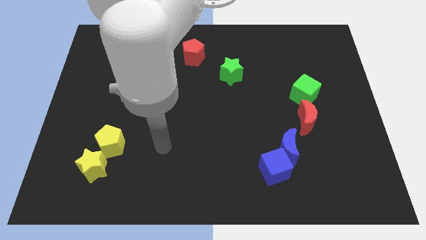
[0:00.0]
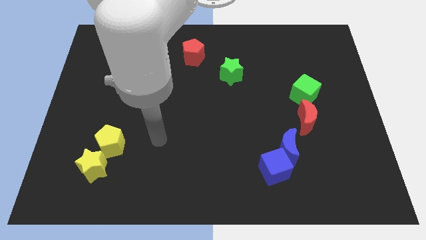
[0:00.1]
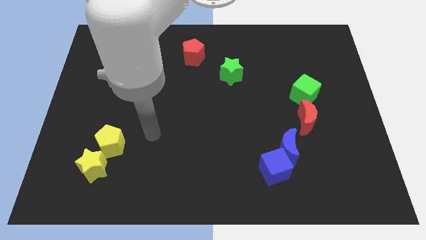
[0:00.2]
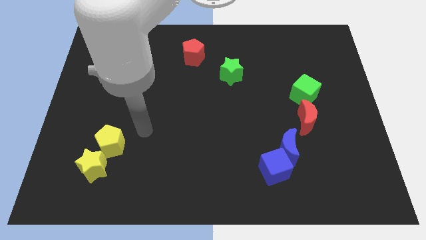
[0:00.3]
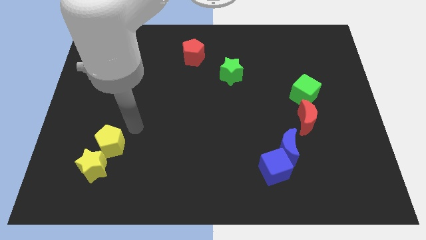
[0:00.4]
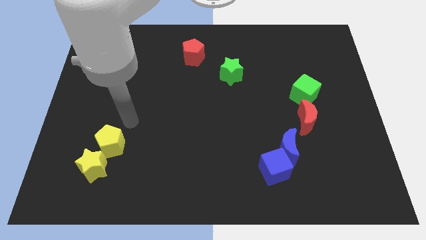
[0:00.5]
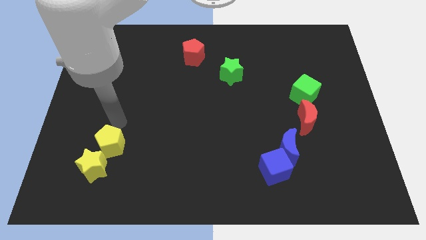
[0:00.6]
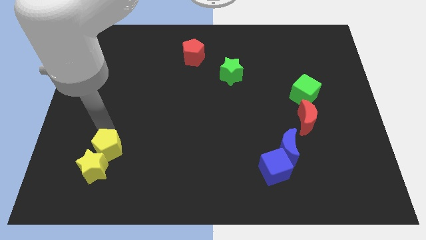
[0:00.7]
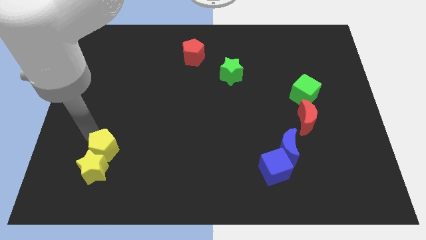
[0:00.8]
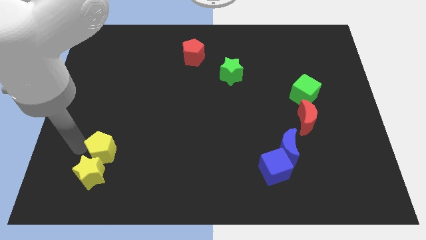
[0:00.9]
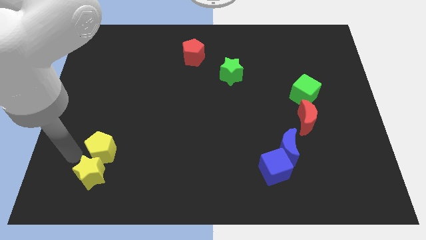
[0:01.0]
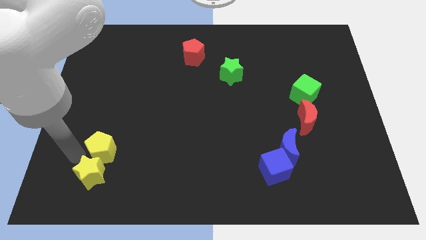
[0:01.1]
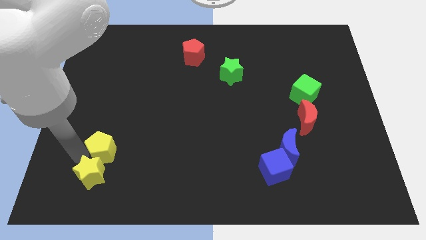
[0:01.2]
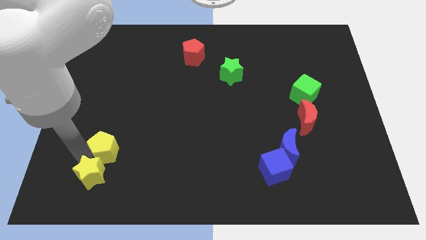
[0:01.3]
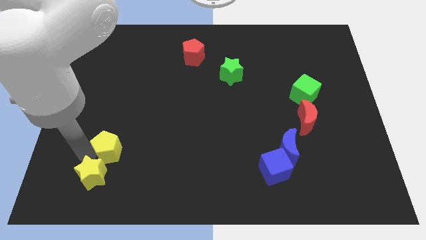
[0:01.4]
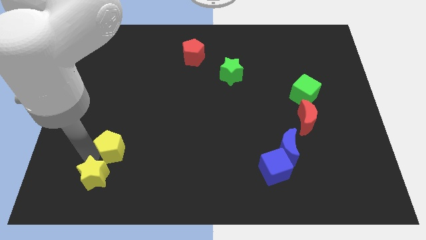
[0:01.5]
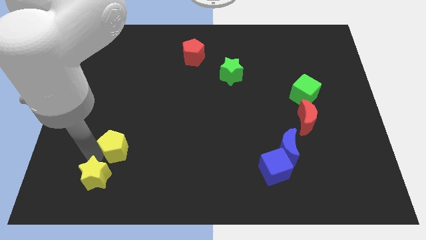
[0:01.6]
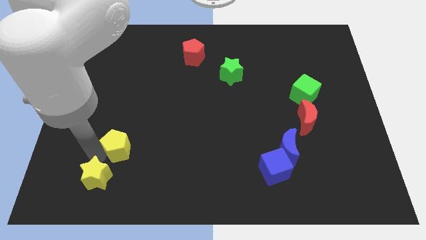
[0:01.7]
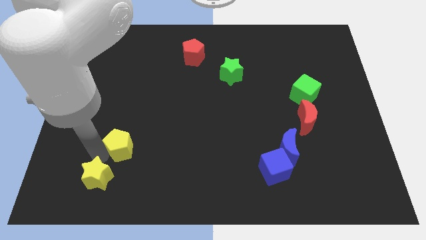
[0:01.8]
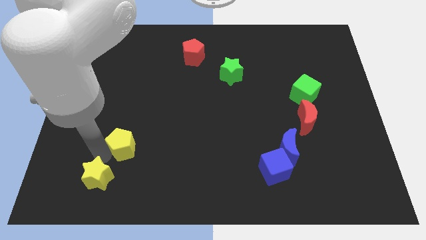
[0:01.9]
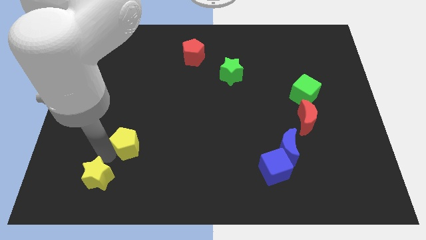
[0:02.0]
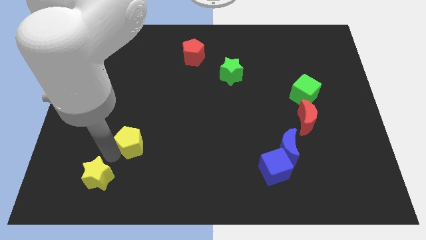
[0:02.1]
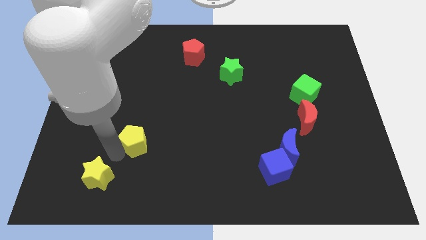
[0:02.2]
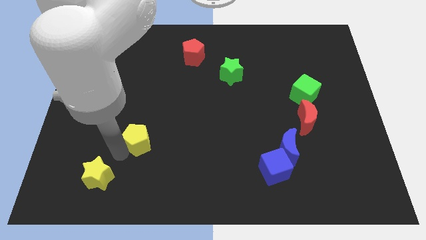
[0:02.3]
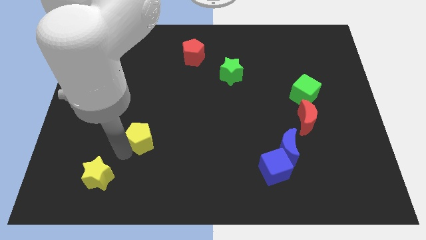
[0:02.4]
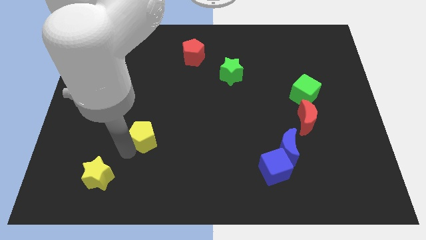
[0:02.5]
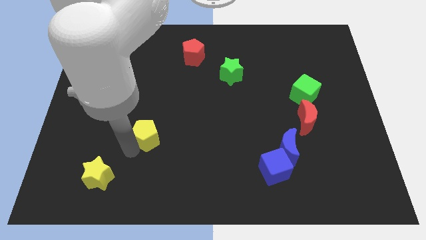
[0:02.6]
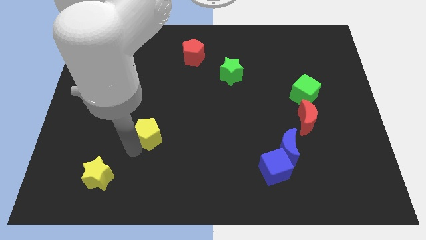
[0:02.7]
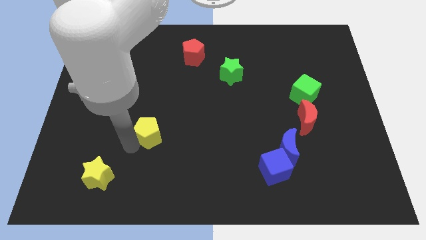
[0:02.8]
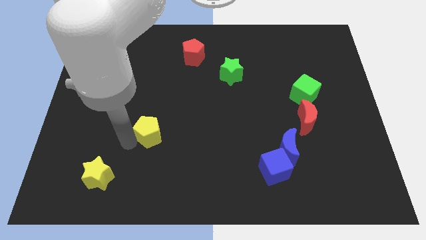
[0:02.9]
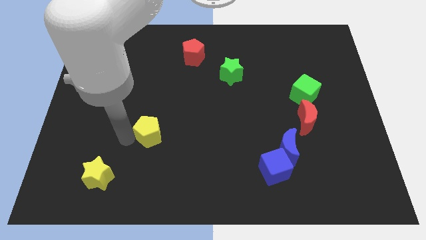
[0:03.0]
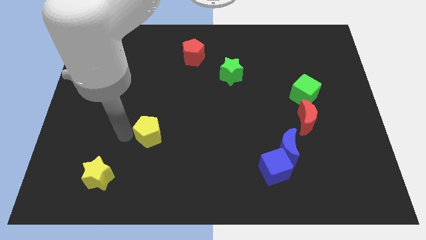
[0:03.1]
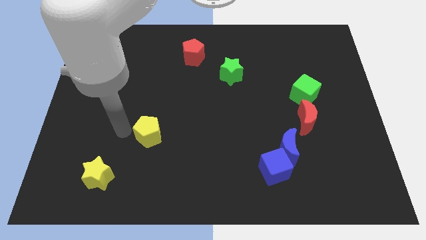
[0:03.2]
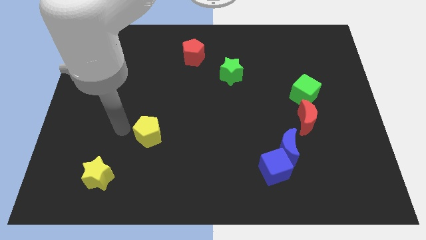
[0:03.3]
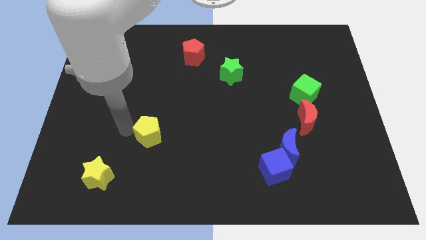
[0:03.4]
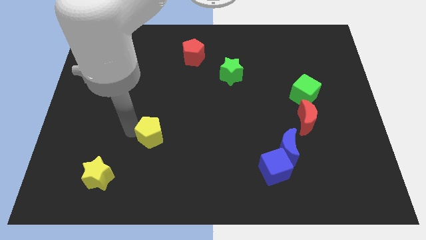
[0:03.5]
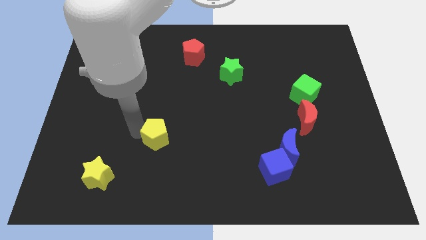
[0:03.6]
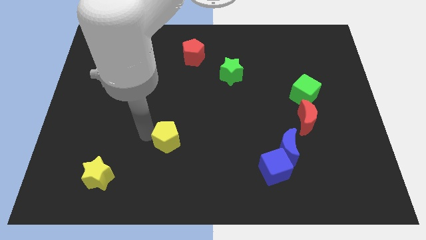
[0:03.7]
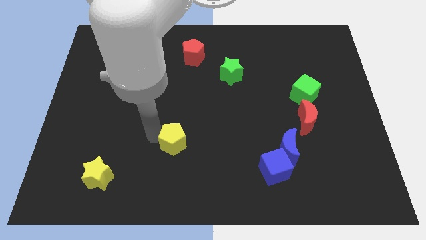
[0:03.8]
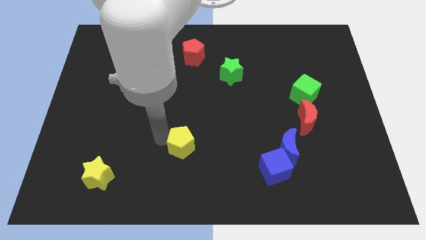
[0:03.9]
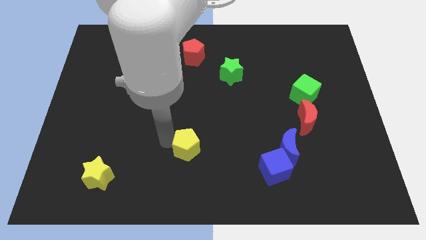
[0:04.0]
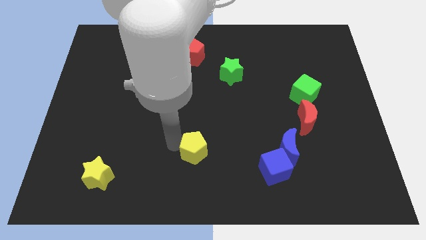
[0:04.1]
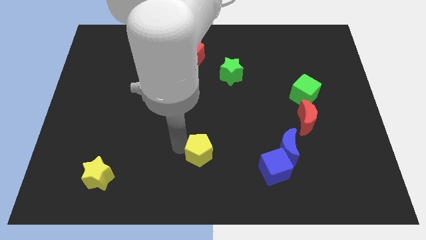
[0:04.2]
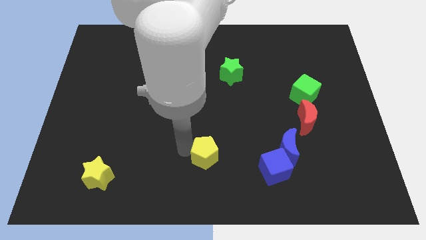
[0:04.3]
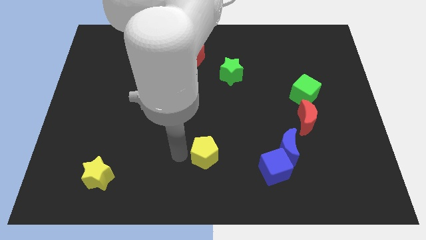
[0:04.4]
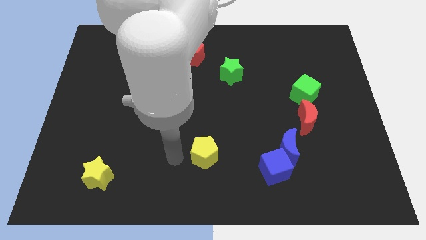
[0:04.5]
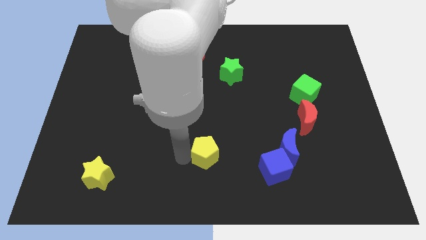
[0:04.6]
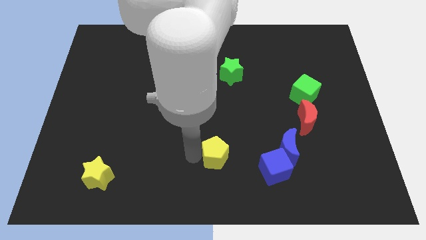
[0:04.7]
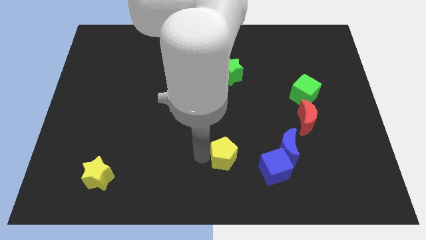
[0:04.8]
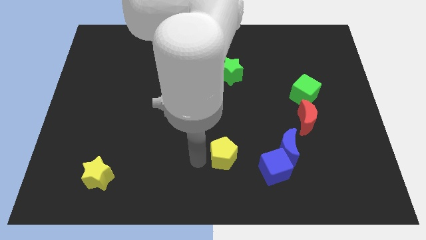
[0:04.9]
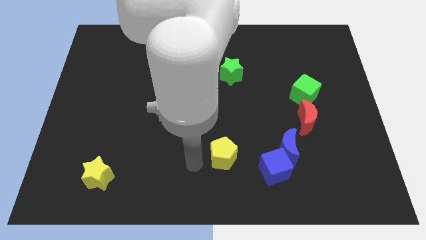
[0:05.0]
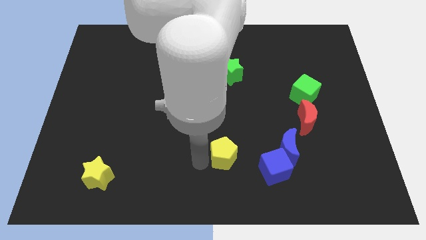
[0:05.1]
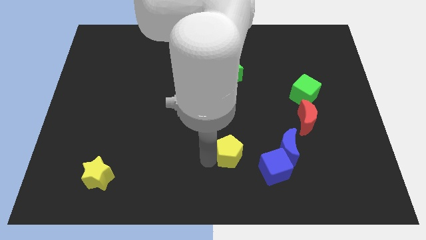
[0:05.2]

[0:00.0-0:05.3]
slide the yellow pentagon to the top left side of the blue cube

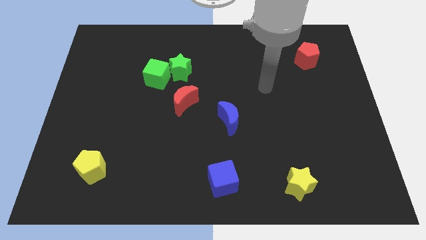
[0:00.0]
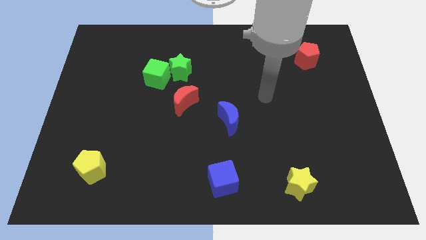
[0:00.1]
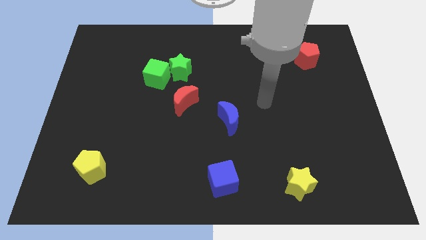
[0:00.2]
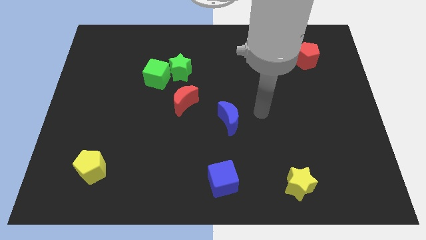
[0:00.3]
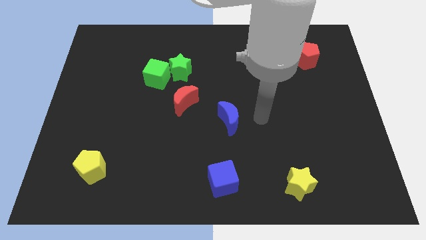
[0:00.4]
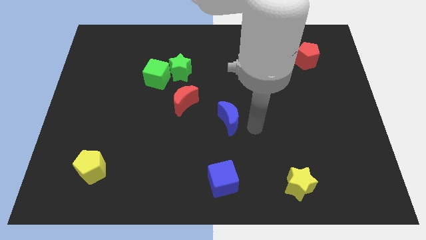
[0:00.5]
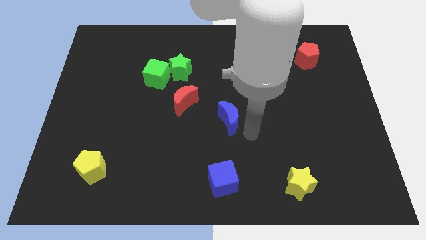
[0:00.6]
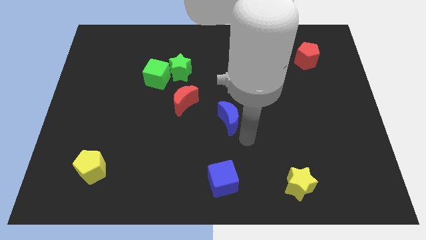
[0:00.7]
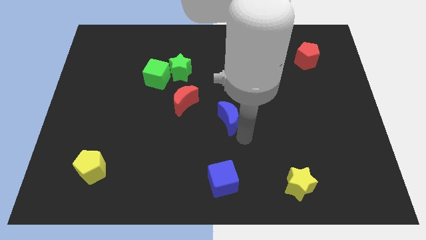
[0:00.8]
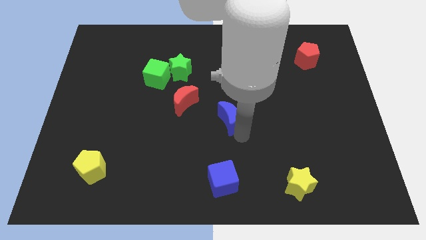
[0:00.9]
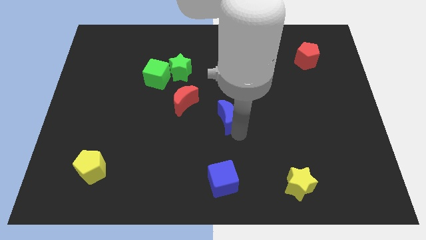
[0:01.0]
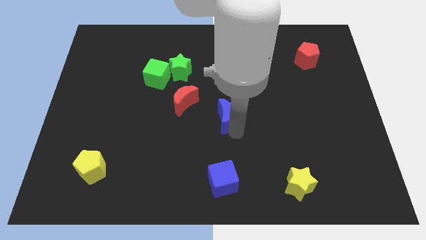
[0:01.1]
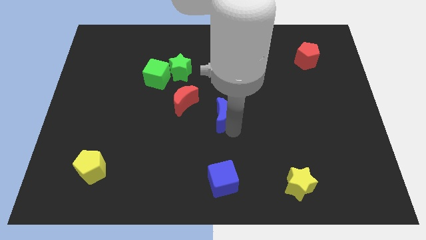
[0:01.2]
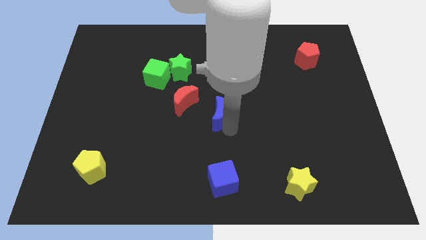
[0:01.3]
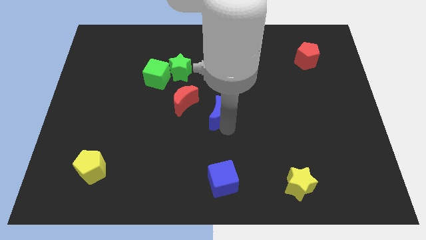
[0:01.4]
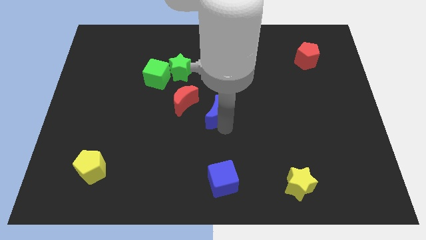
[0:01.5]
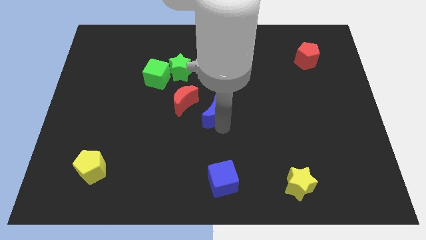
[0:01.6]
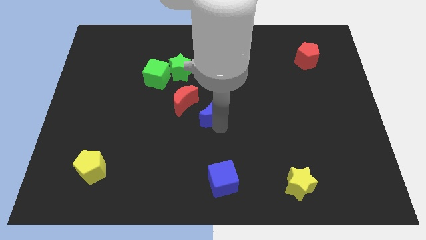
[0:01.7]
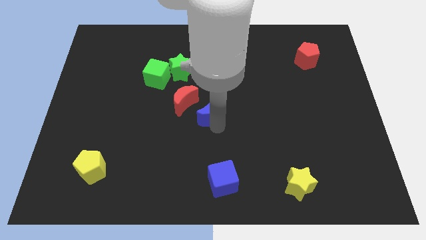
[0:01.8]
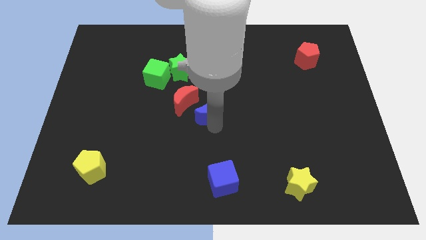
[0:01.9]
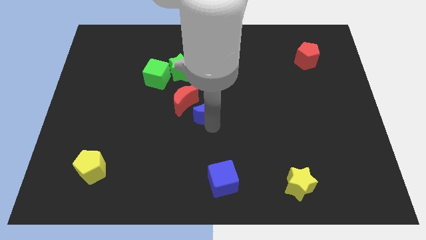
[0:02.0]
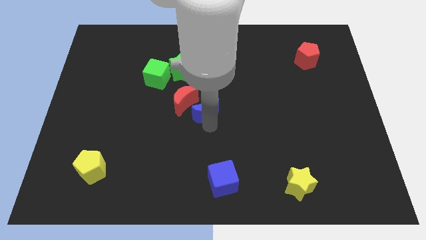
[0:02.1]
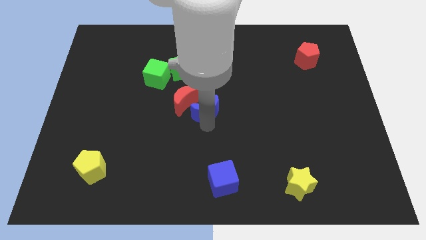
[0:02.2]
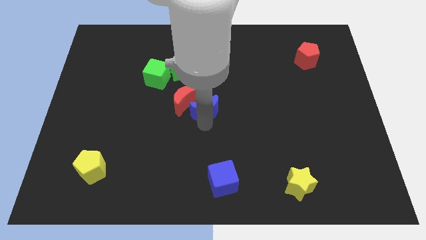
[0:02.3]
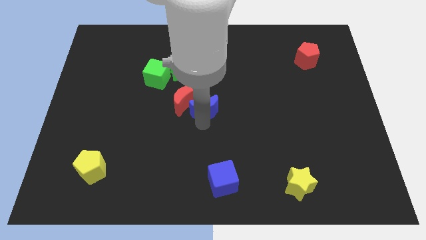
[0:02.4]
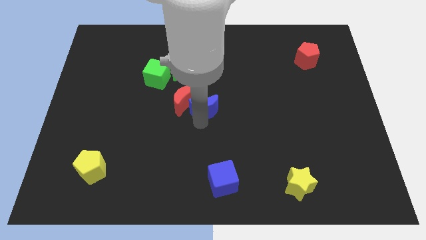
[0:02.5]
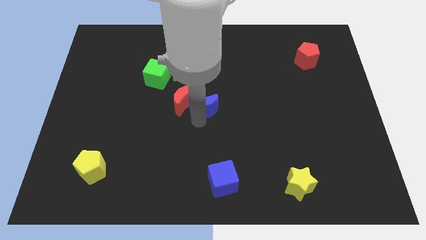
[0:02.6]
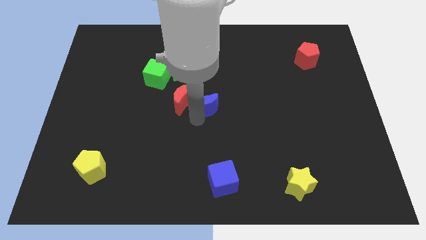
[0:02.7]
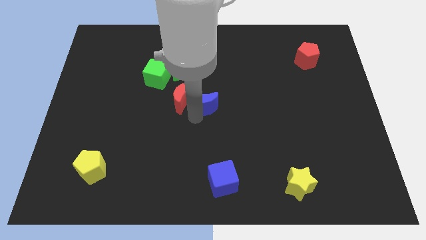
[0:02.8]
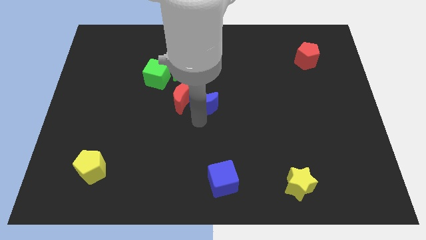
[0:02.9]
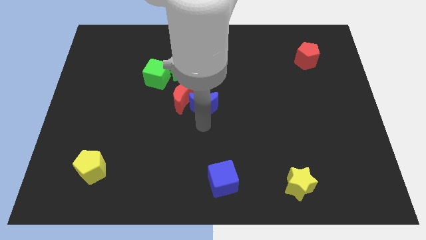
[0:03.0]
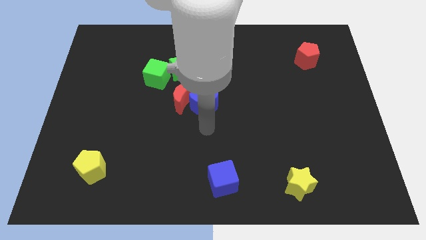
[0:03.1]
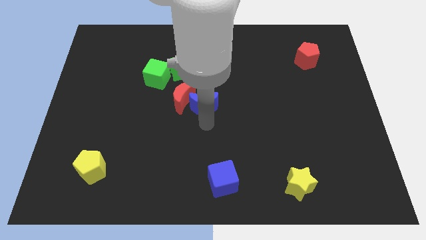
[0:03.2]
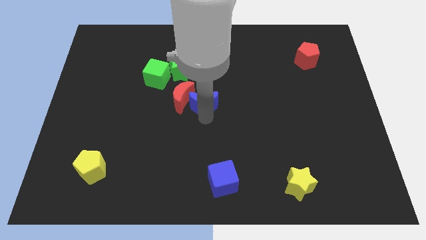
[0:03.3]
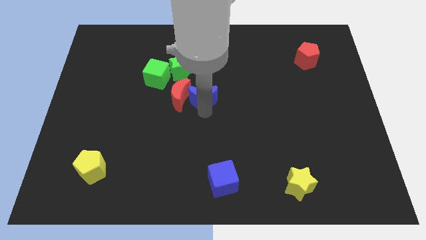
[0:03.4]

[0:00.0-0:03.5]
push the blue moon to the bottom right of the green star
